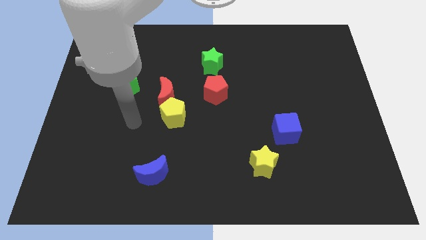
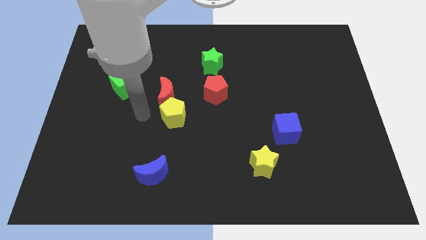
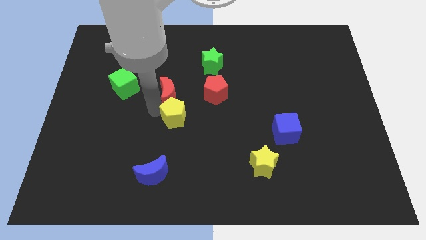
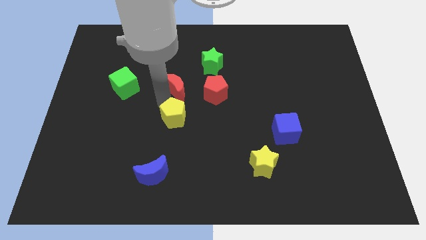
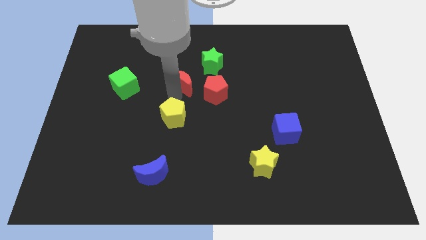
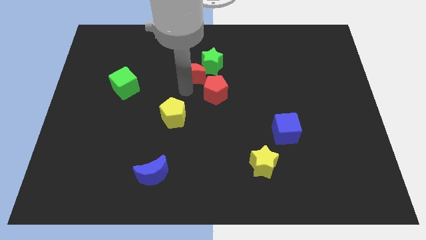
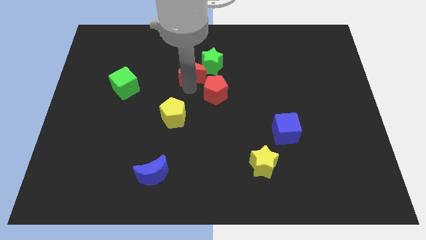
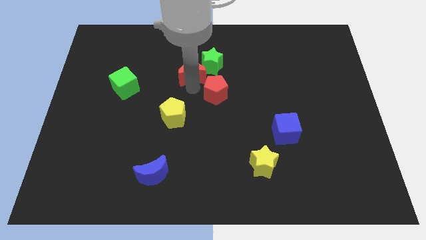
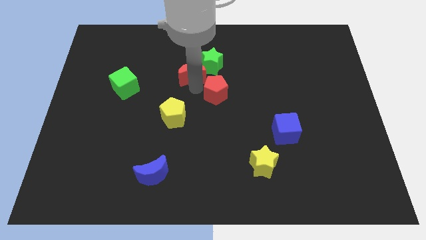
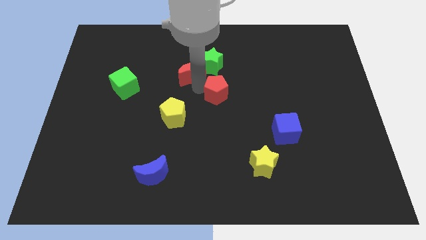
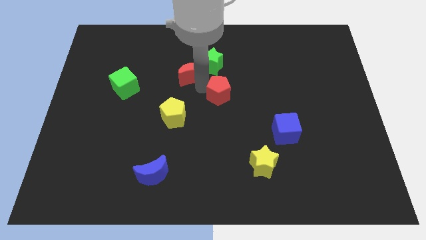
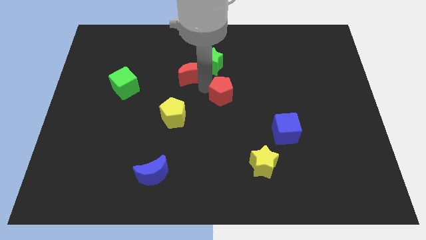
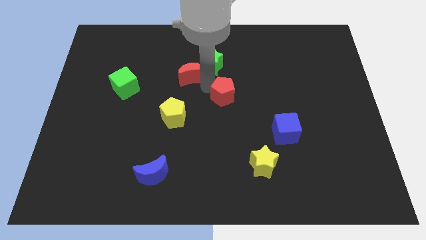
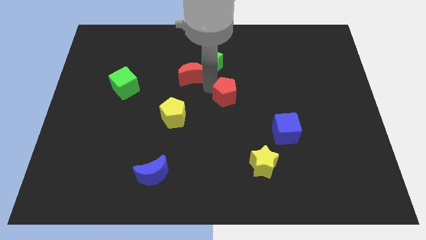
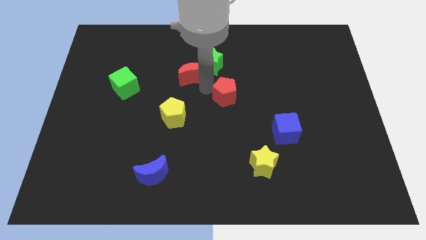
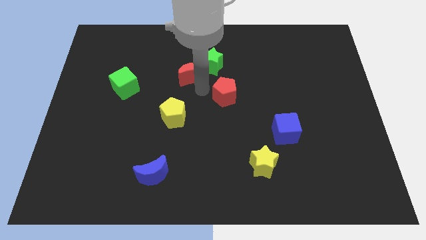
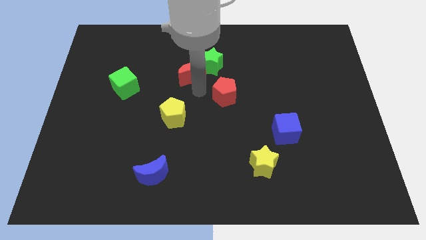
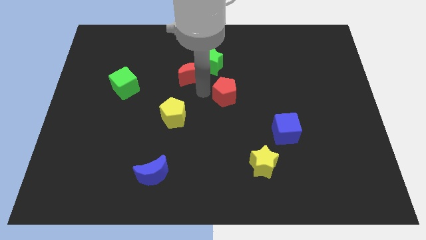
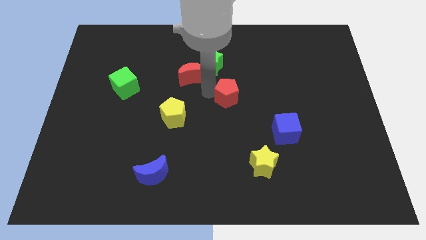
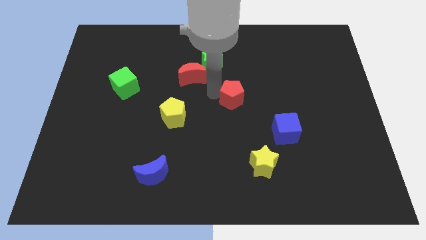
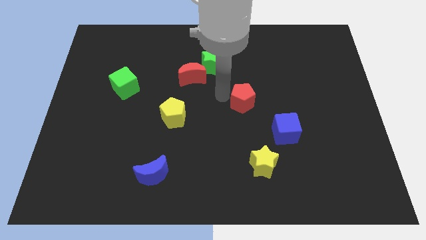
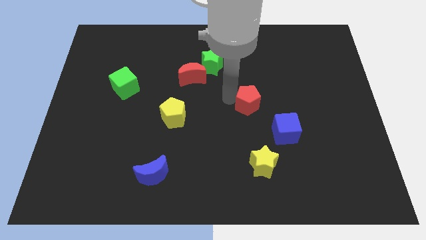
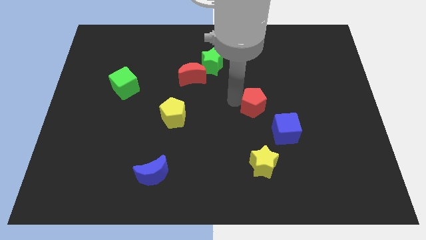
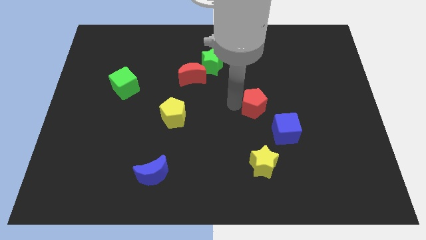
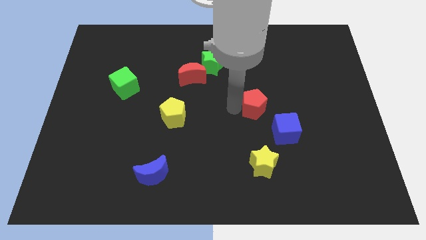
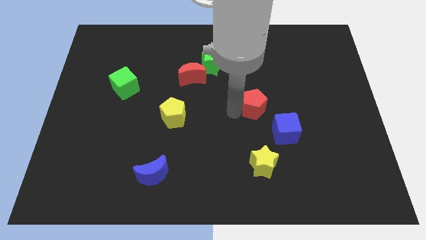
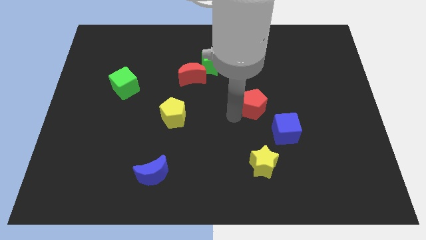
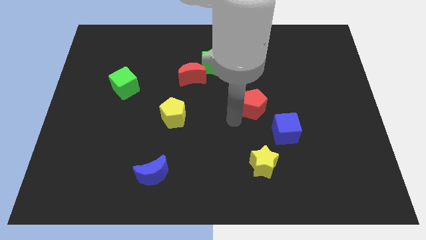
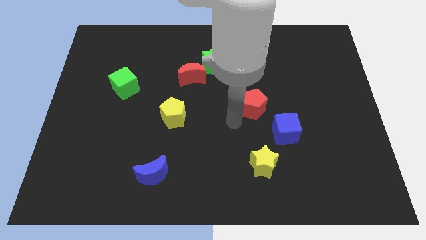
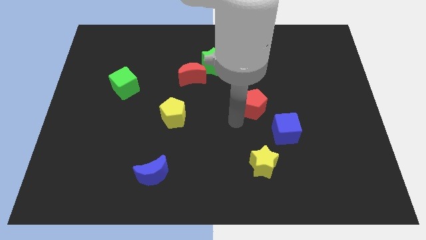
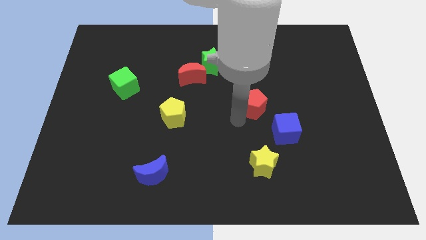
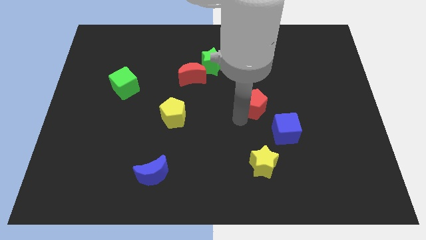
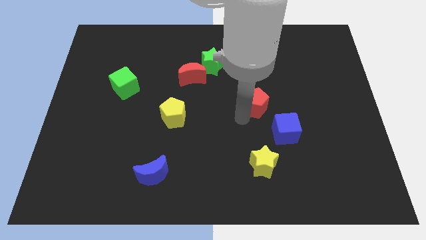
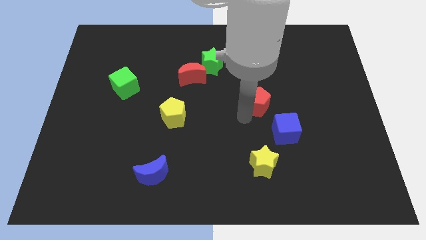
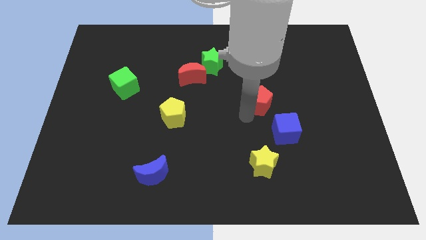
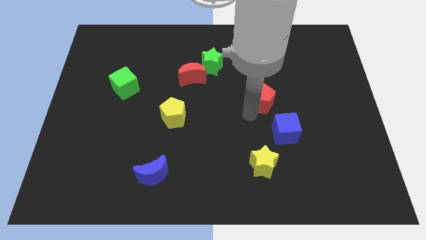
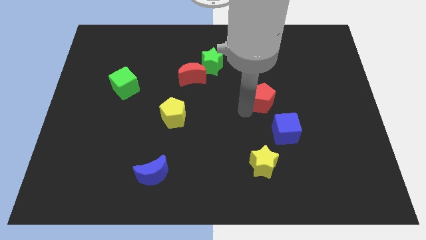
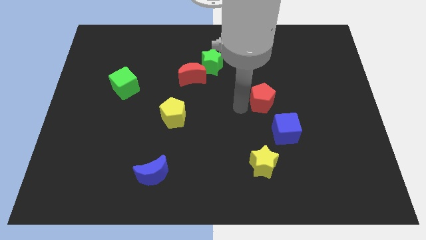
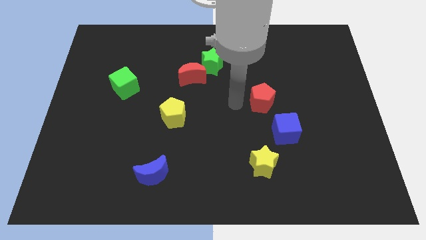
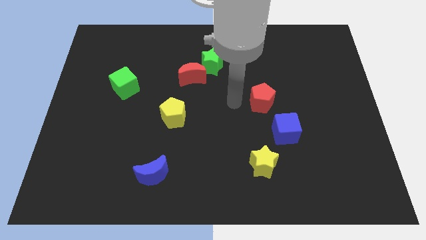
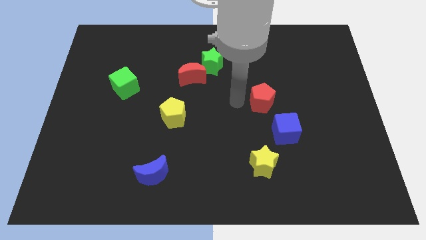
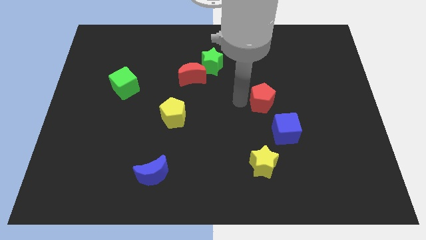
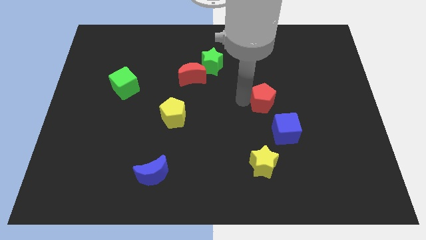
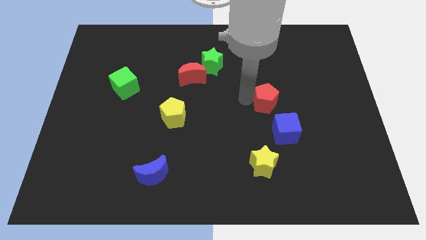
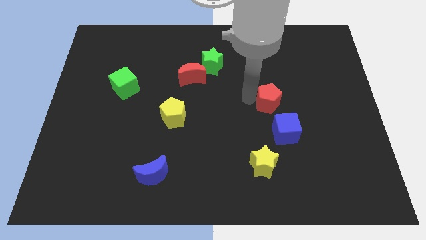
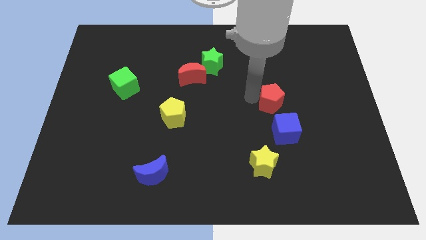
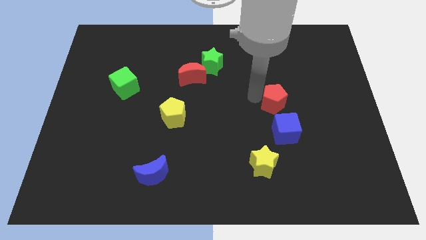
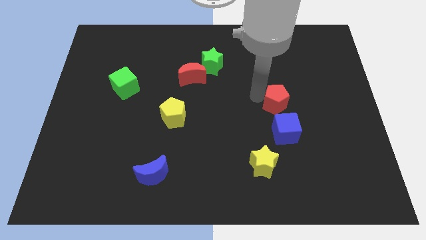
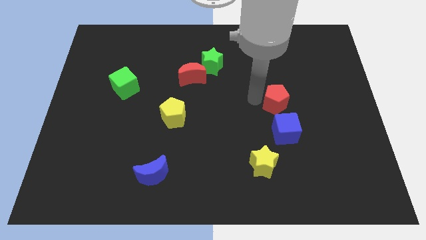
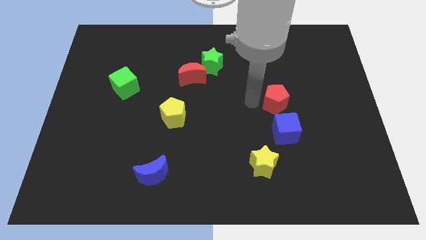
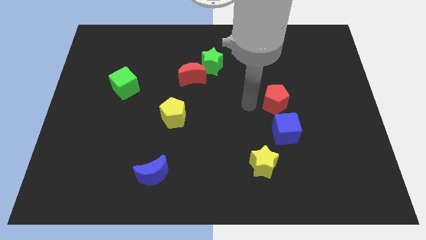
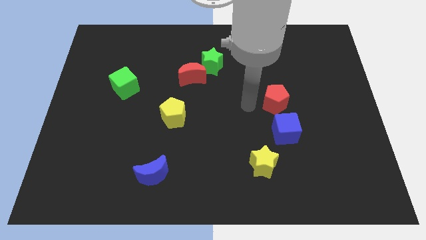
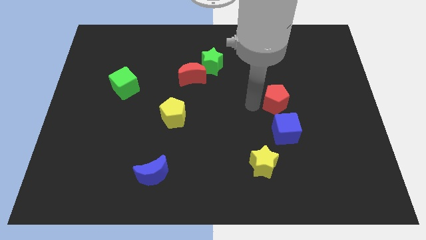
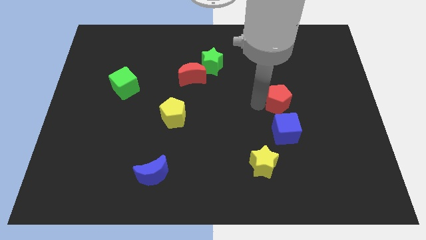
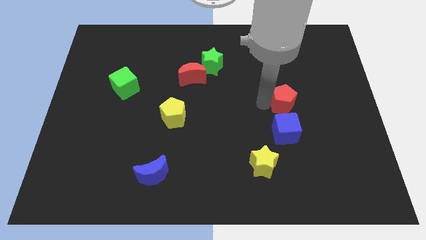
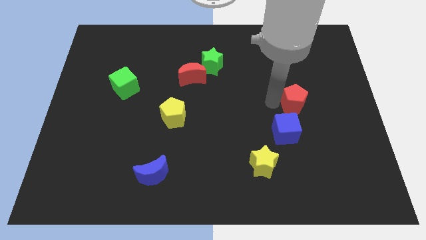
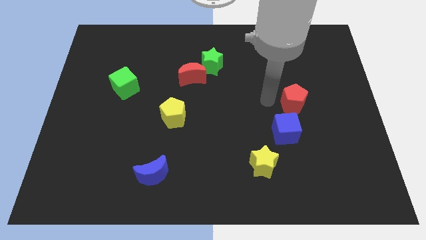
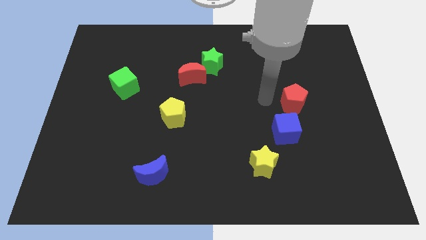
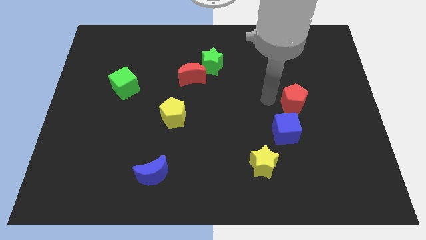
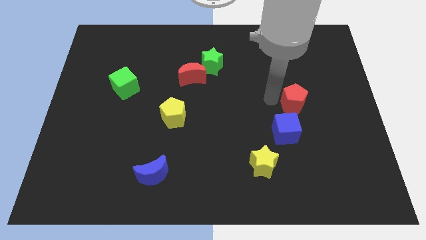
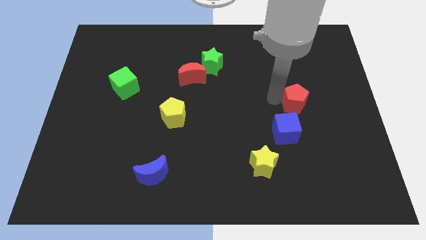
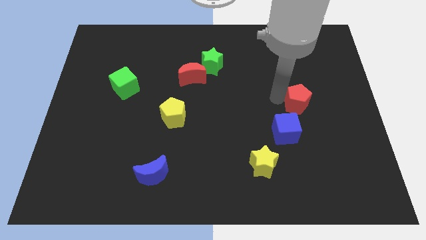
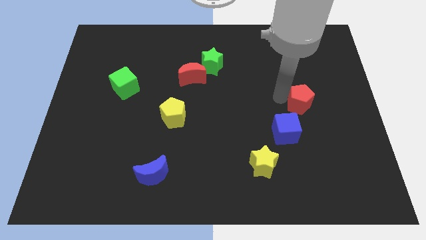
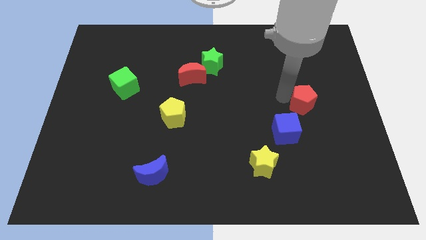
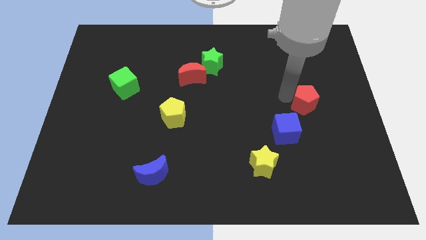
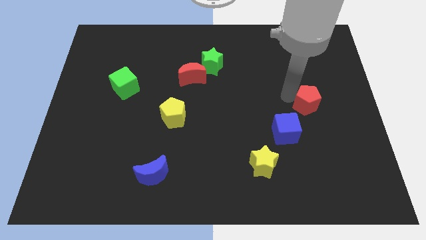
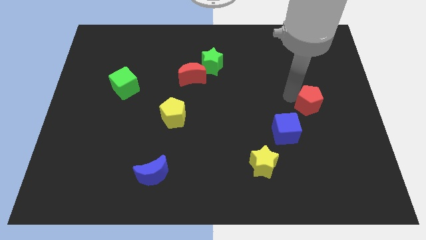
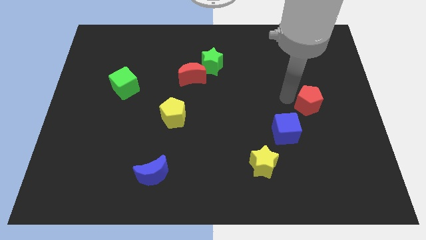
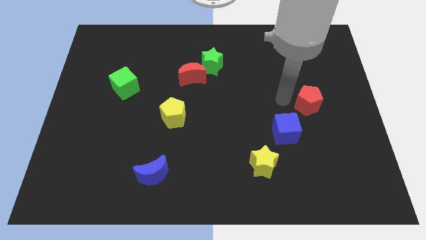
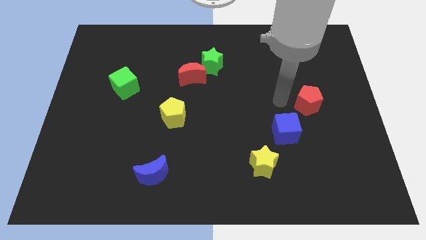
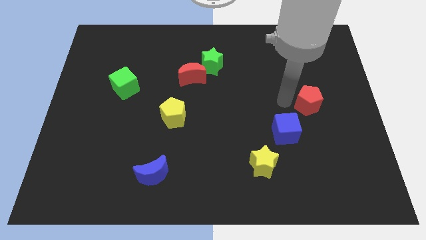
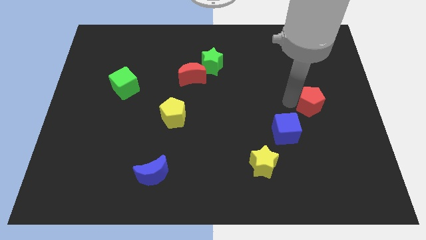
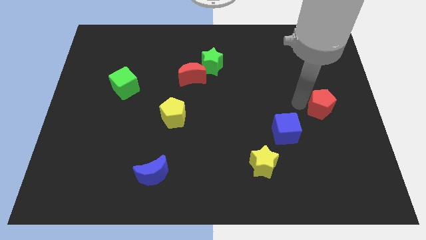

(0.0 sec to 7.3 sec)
slide the red pentagon to the right side of the board
